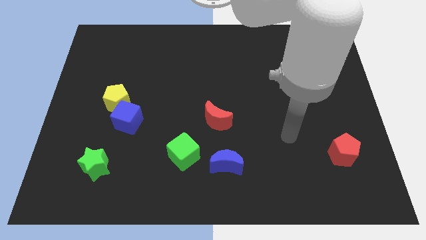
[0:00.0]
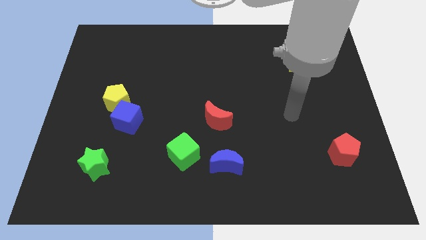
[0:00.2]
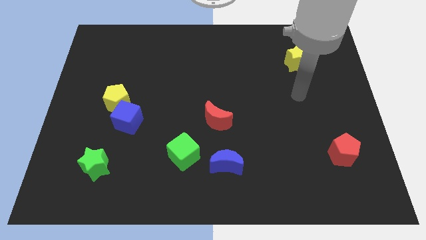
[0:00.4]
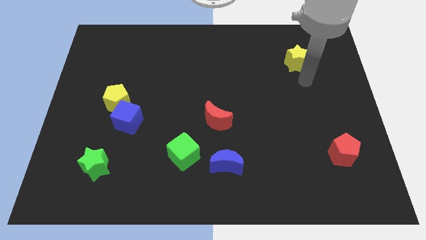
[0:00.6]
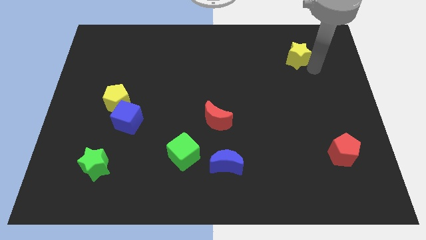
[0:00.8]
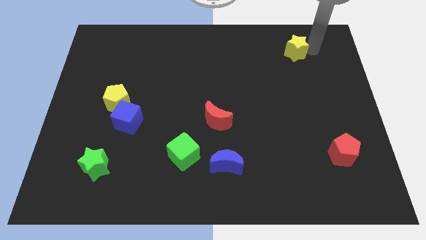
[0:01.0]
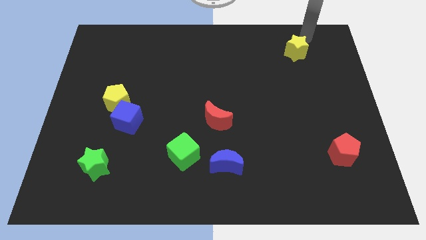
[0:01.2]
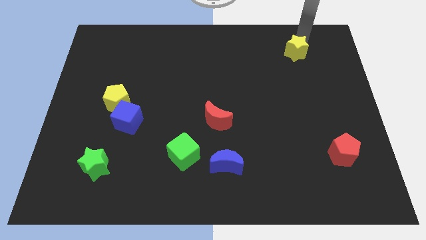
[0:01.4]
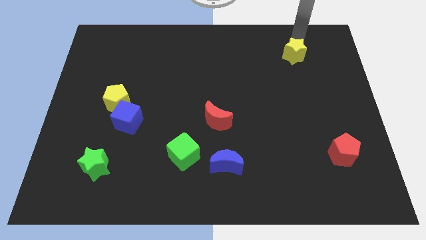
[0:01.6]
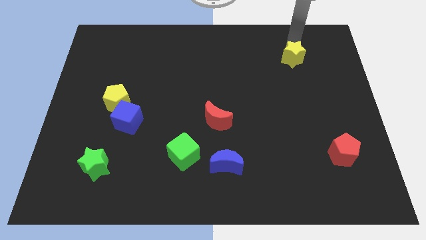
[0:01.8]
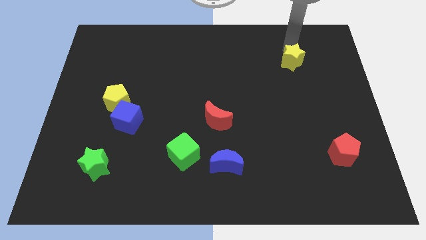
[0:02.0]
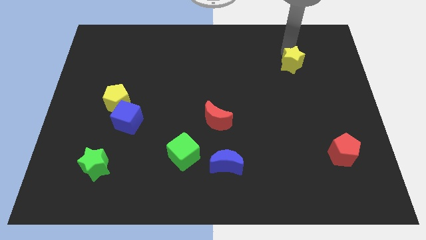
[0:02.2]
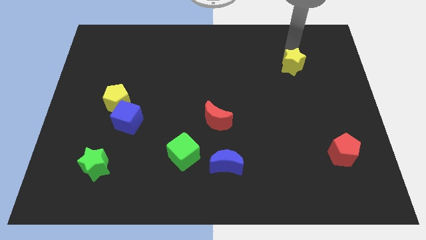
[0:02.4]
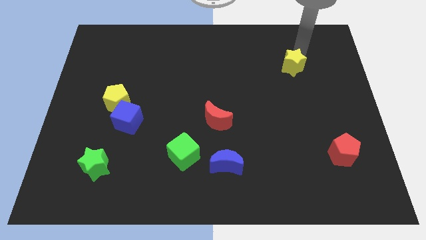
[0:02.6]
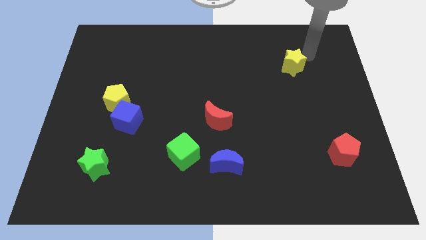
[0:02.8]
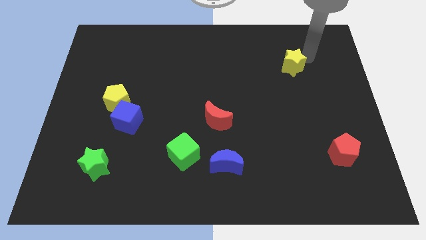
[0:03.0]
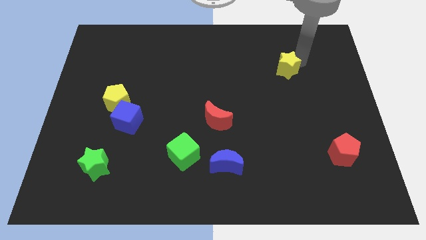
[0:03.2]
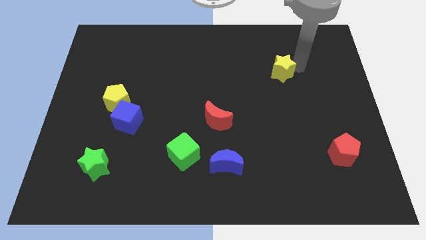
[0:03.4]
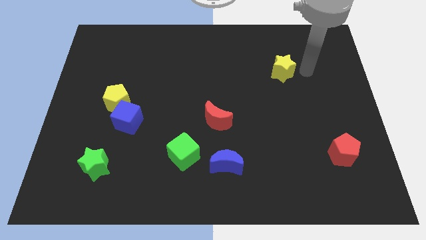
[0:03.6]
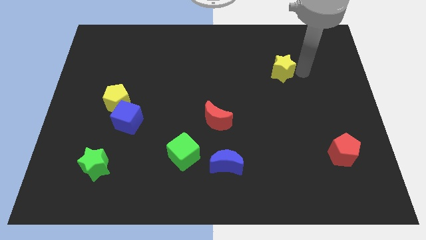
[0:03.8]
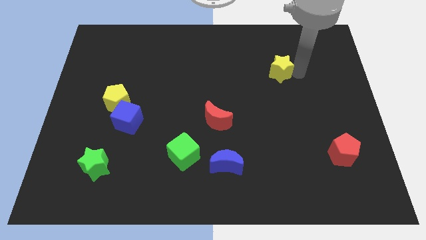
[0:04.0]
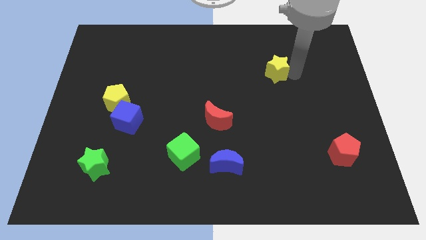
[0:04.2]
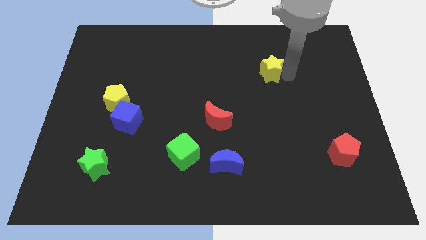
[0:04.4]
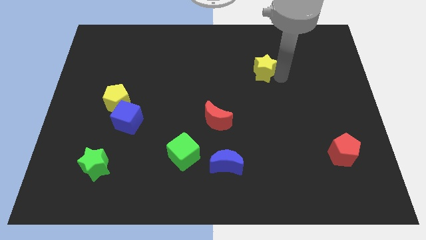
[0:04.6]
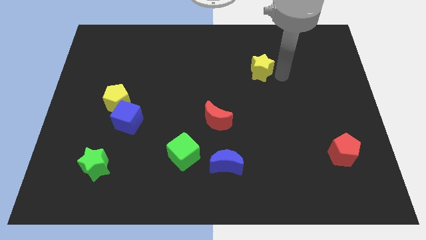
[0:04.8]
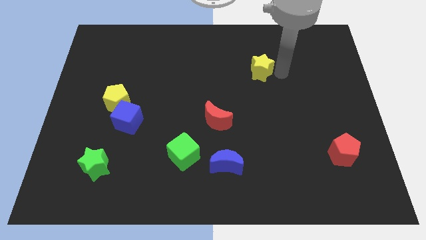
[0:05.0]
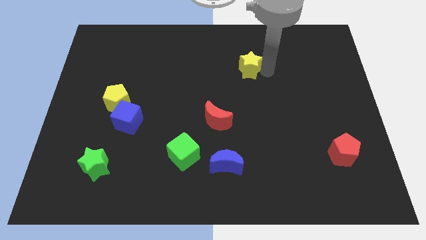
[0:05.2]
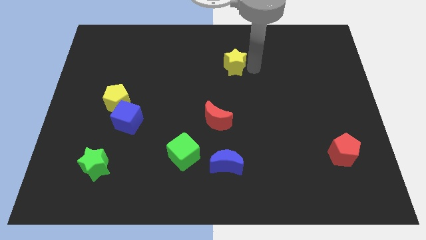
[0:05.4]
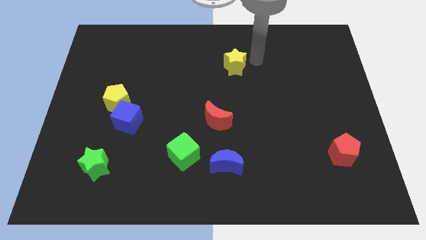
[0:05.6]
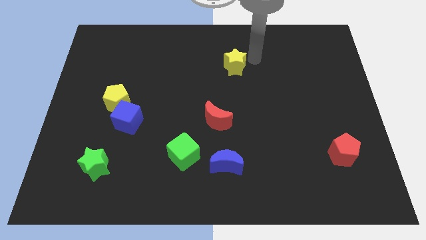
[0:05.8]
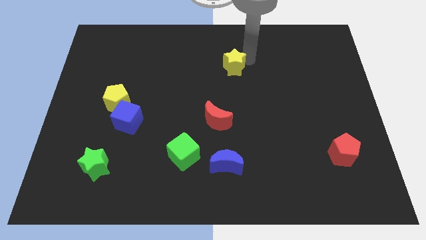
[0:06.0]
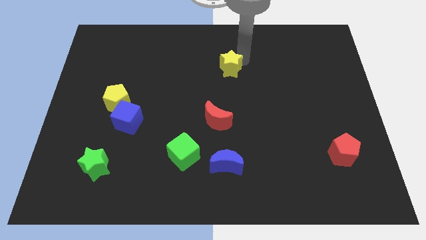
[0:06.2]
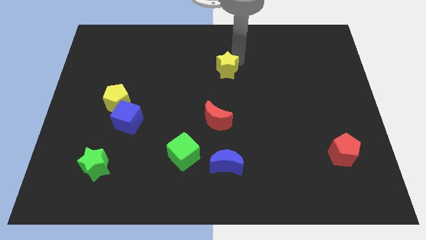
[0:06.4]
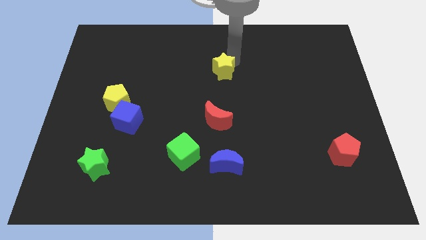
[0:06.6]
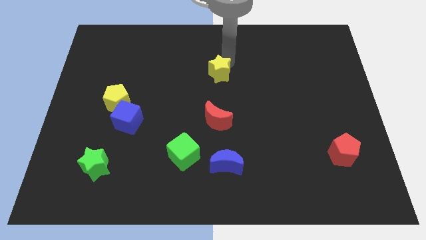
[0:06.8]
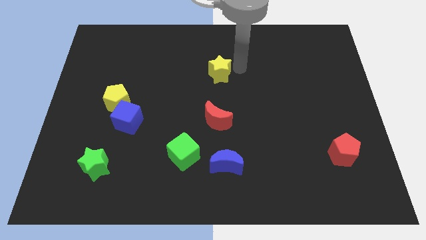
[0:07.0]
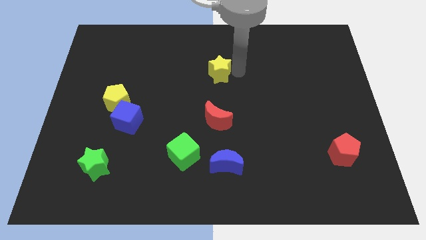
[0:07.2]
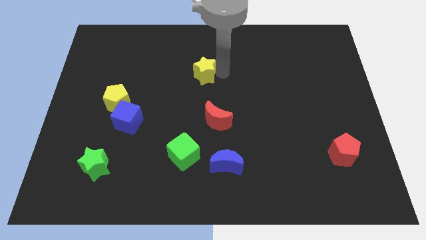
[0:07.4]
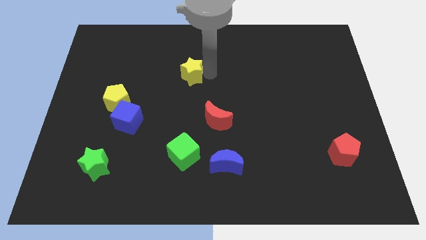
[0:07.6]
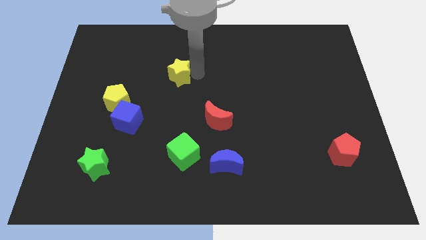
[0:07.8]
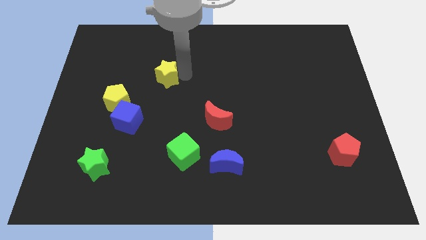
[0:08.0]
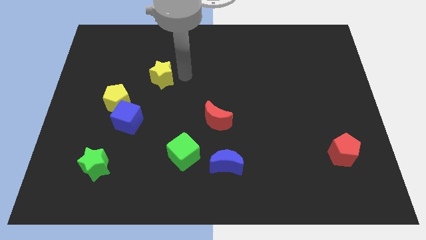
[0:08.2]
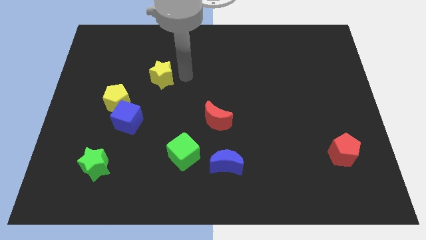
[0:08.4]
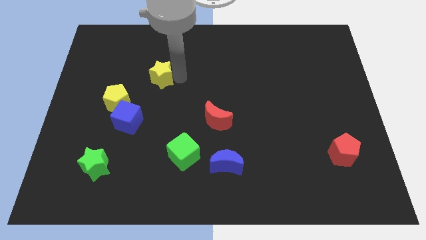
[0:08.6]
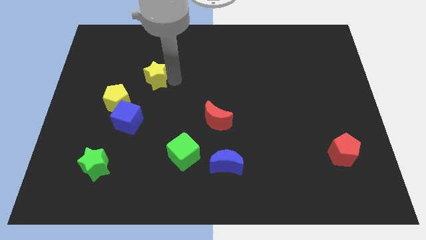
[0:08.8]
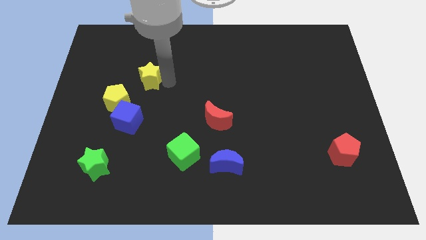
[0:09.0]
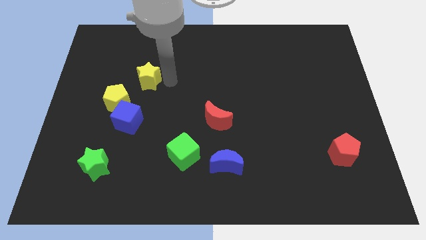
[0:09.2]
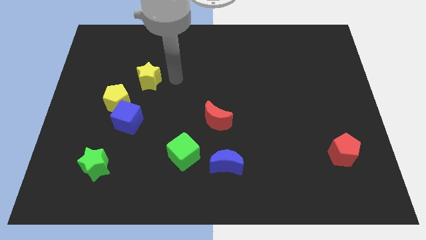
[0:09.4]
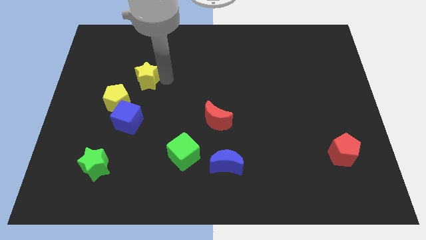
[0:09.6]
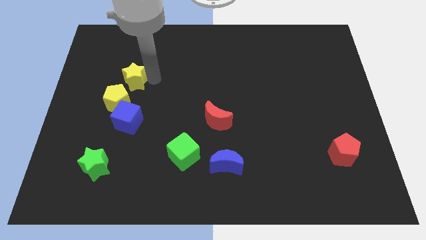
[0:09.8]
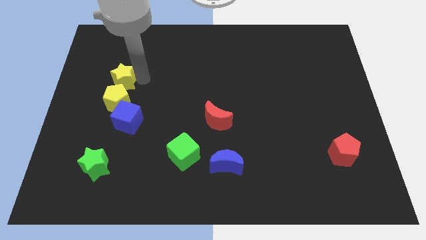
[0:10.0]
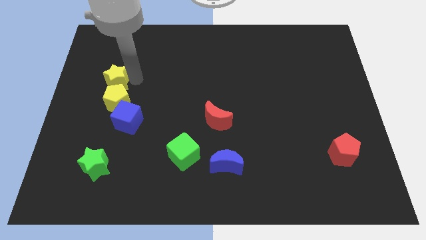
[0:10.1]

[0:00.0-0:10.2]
push the yellow star diagonally up and to the left of the yellow pentagon

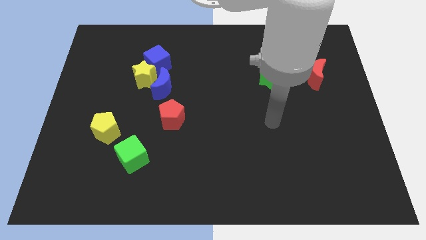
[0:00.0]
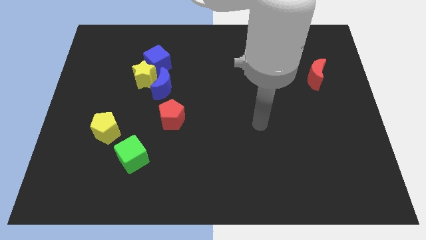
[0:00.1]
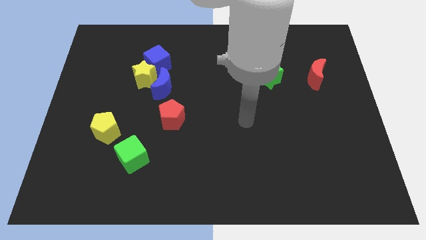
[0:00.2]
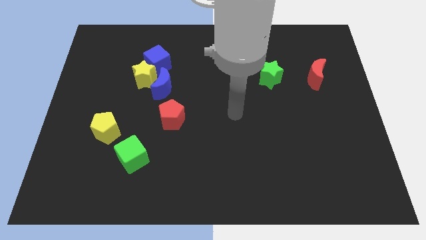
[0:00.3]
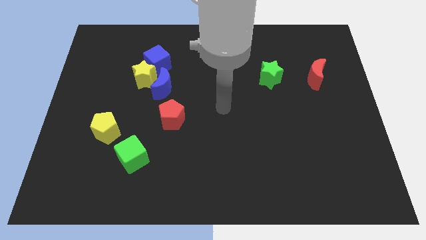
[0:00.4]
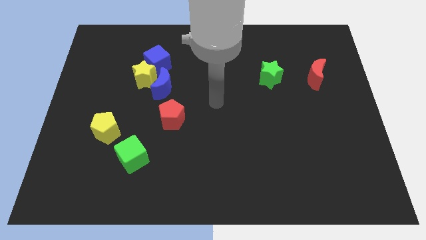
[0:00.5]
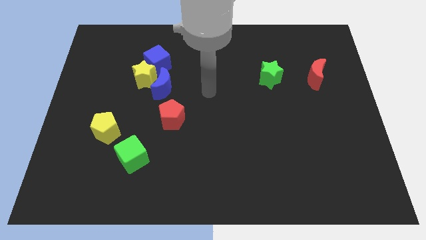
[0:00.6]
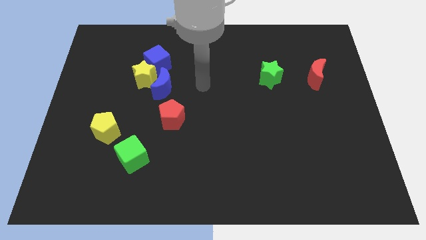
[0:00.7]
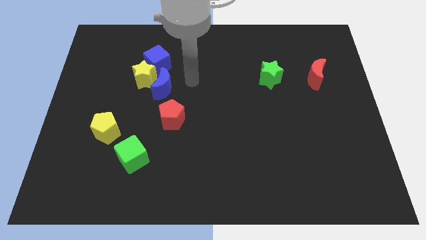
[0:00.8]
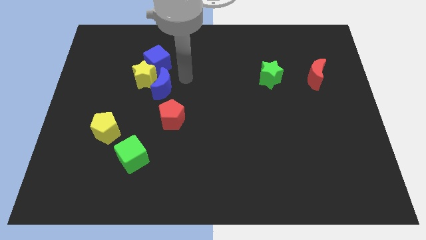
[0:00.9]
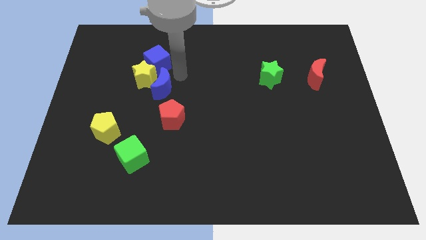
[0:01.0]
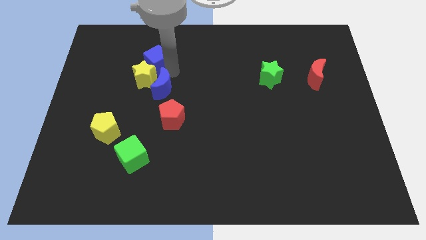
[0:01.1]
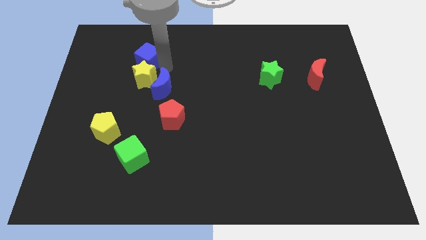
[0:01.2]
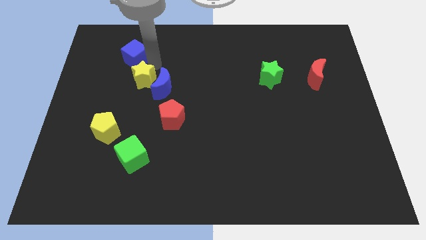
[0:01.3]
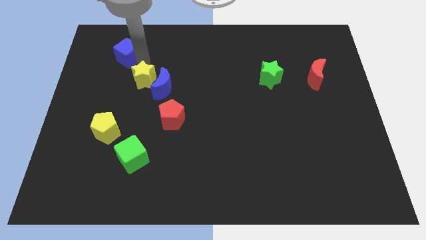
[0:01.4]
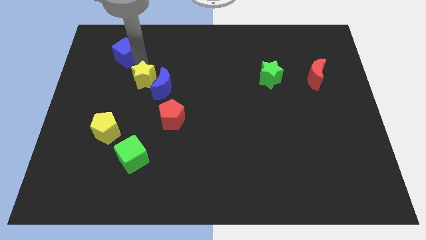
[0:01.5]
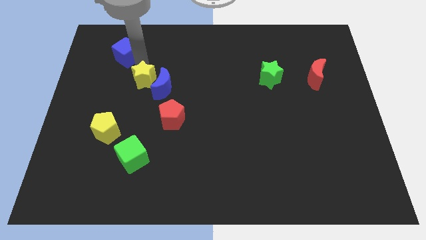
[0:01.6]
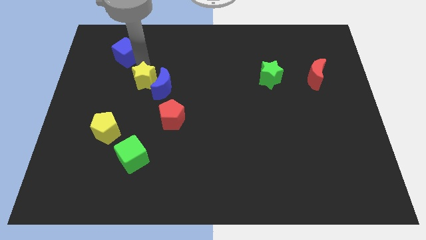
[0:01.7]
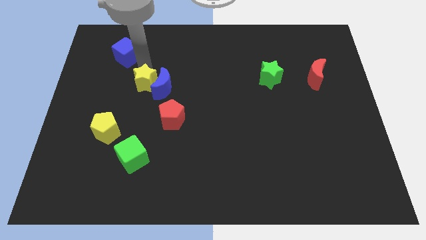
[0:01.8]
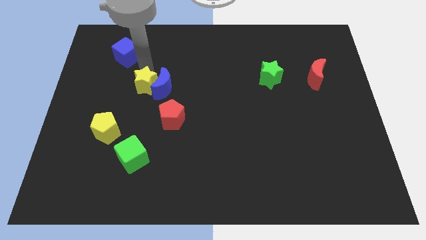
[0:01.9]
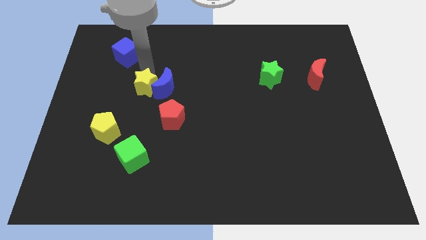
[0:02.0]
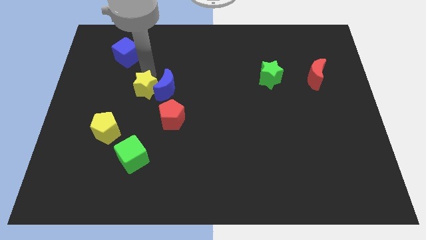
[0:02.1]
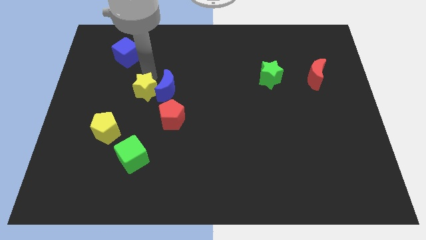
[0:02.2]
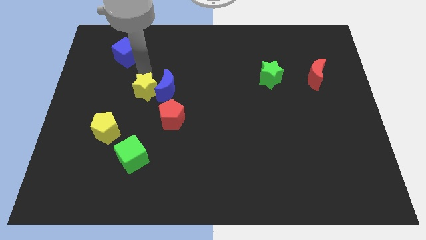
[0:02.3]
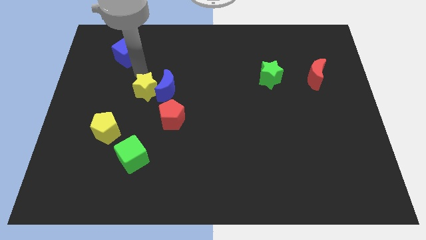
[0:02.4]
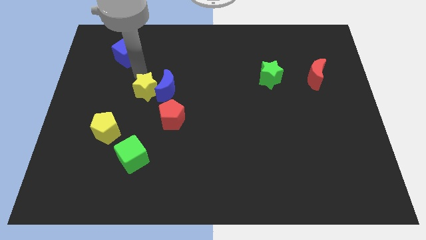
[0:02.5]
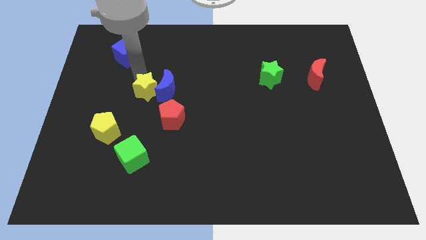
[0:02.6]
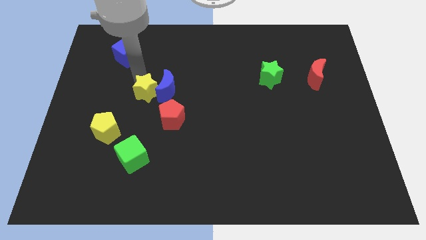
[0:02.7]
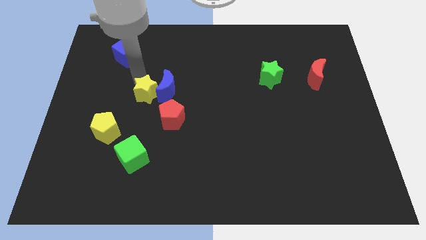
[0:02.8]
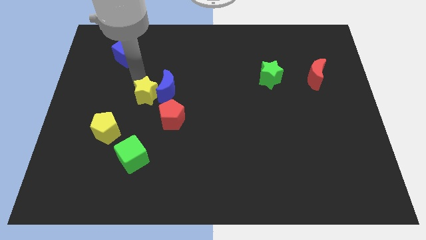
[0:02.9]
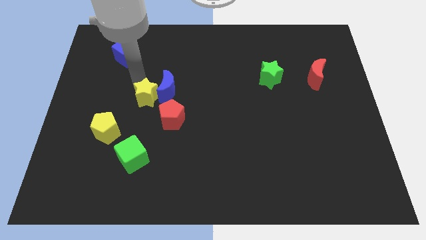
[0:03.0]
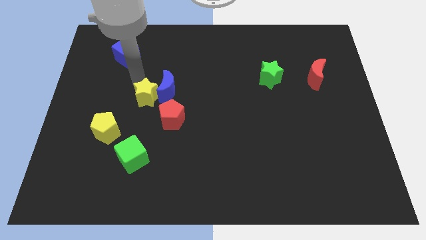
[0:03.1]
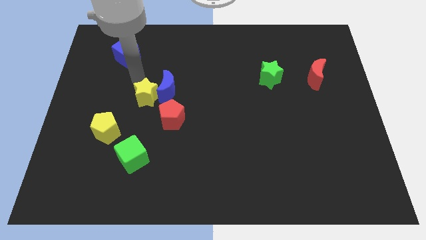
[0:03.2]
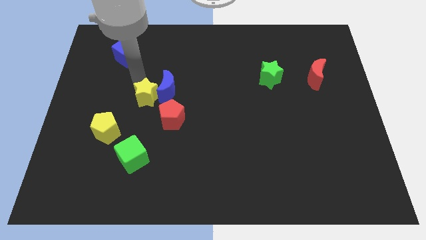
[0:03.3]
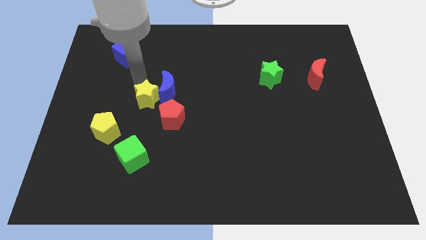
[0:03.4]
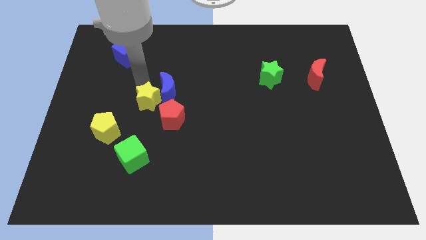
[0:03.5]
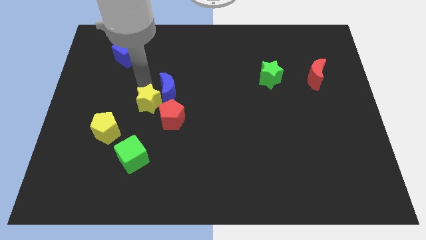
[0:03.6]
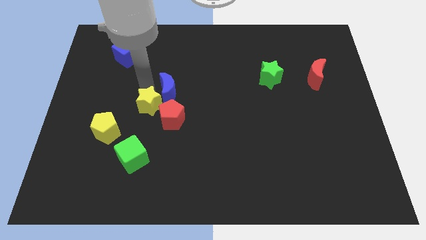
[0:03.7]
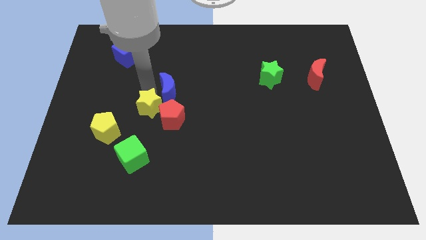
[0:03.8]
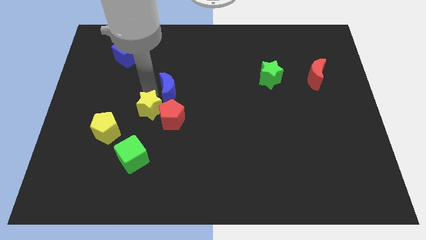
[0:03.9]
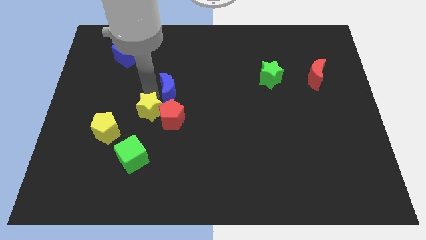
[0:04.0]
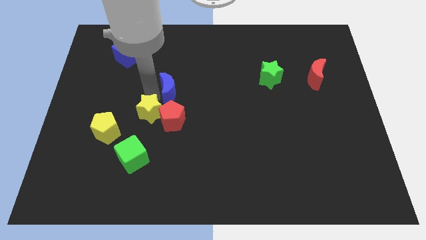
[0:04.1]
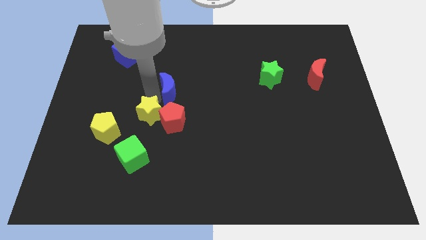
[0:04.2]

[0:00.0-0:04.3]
push the yellow star to the bottom left of the red pentagon
